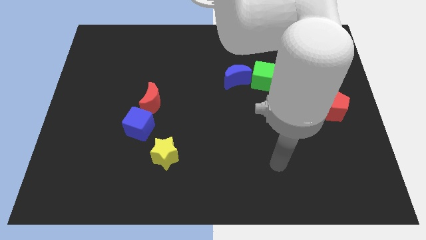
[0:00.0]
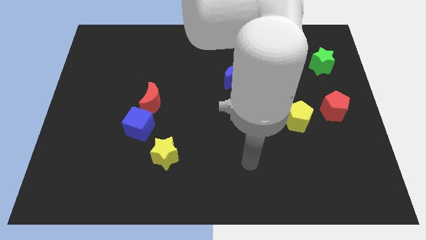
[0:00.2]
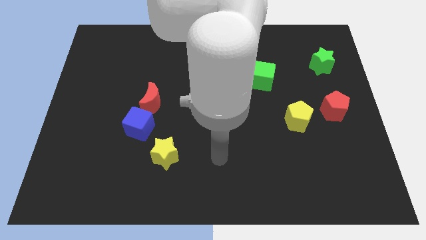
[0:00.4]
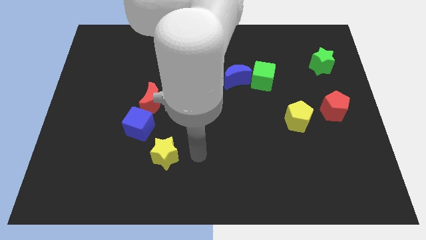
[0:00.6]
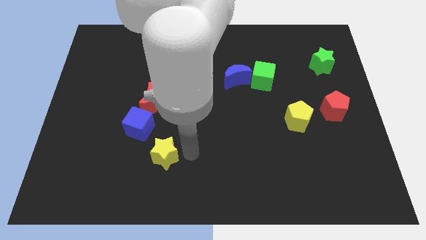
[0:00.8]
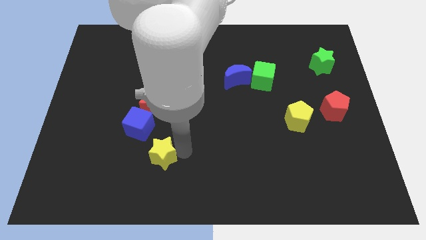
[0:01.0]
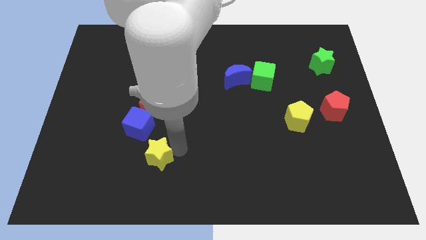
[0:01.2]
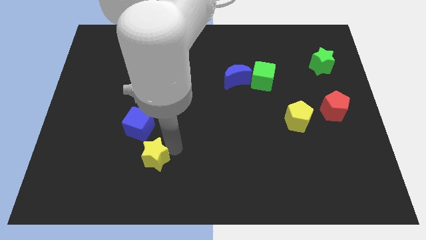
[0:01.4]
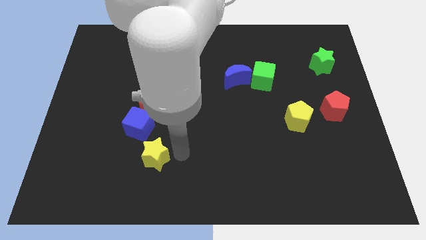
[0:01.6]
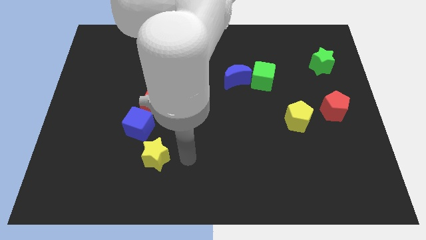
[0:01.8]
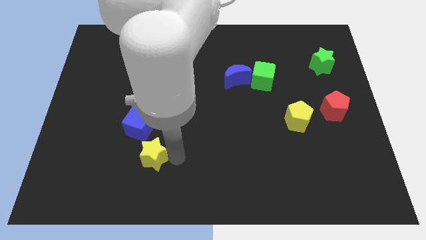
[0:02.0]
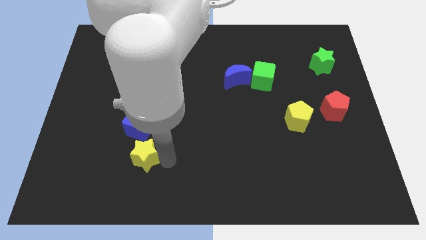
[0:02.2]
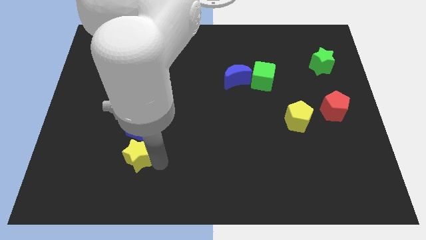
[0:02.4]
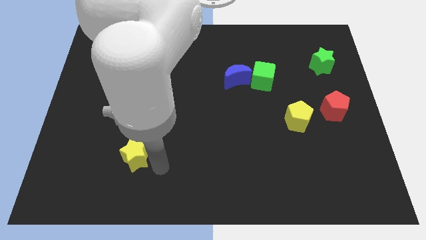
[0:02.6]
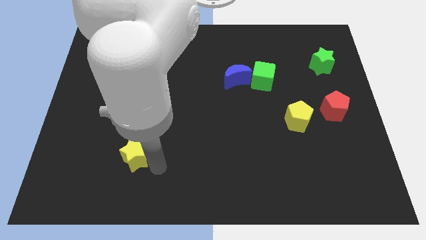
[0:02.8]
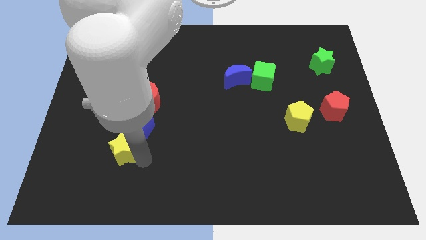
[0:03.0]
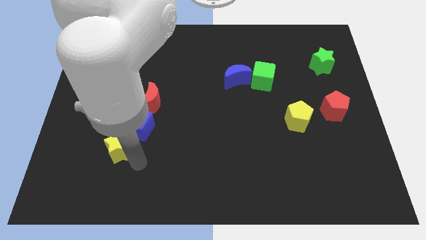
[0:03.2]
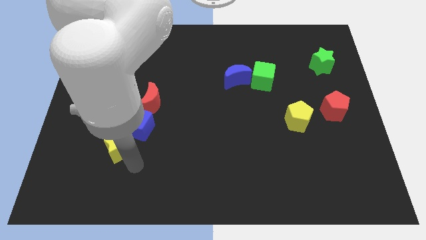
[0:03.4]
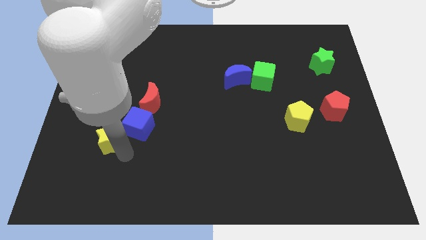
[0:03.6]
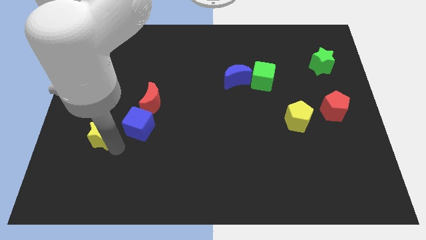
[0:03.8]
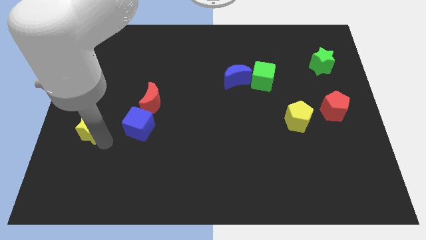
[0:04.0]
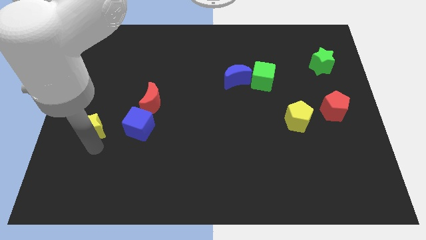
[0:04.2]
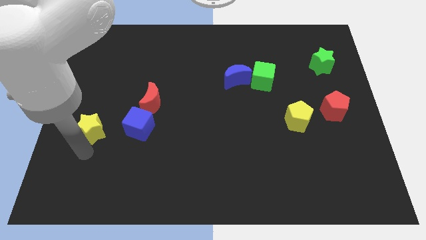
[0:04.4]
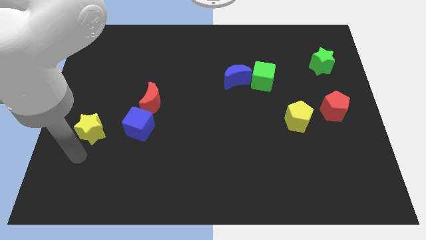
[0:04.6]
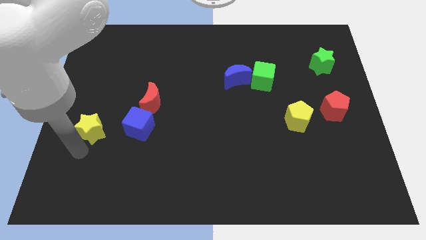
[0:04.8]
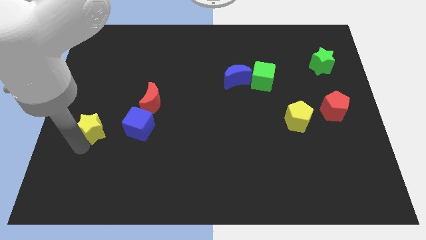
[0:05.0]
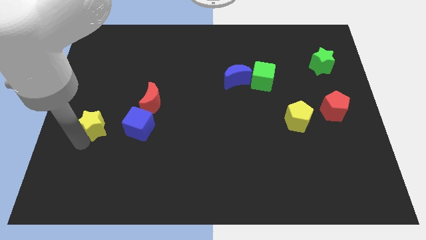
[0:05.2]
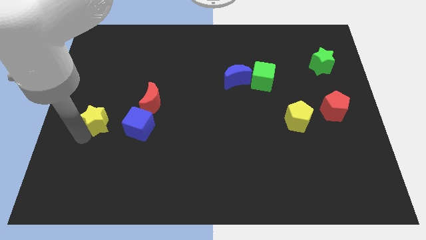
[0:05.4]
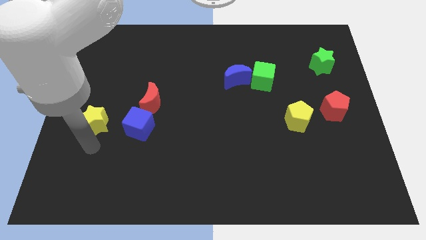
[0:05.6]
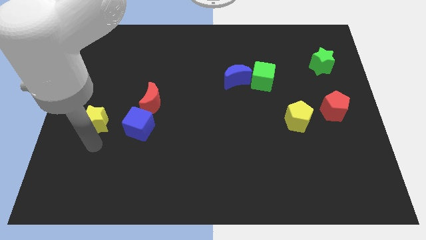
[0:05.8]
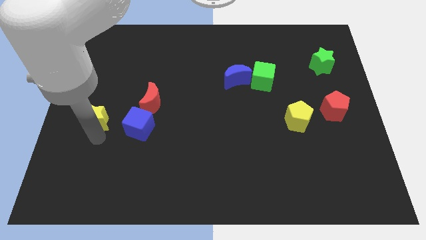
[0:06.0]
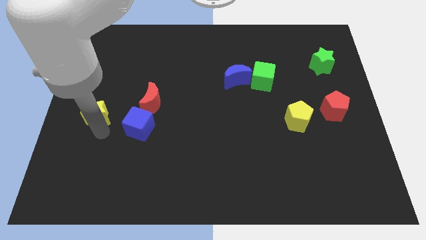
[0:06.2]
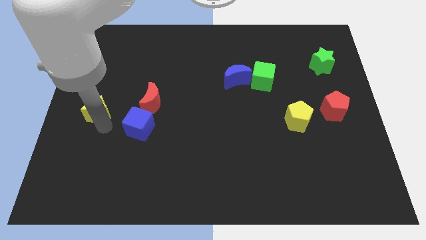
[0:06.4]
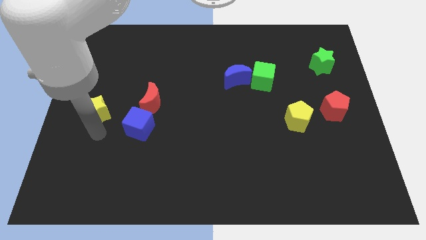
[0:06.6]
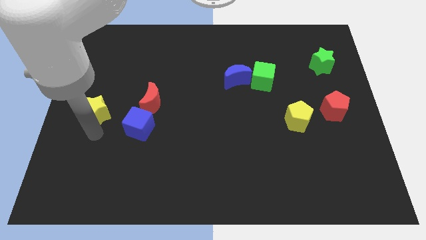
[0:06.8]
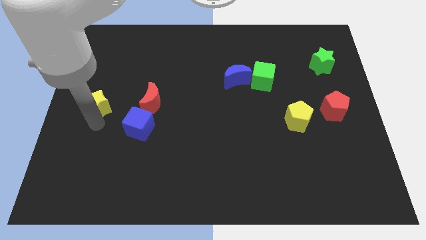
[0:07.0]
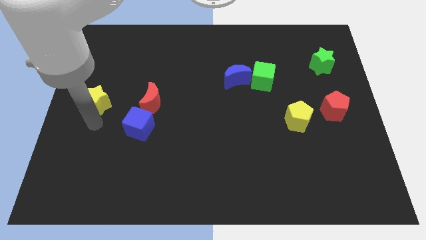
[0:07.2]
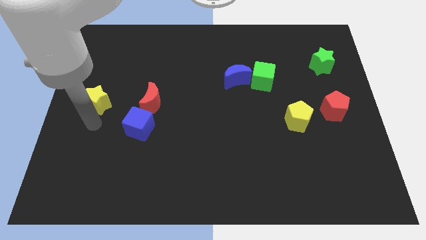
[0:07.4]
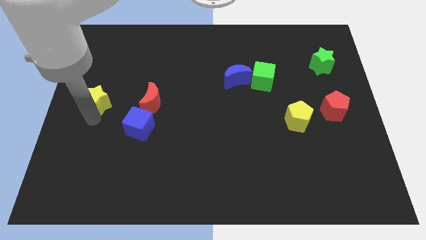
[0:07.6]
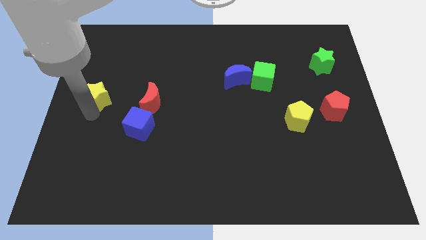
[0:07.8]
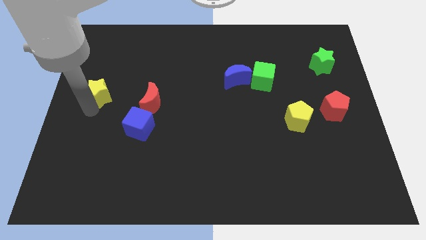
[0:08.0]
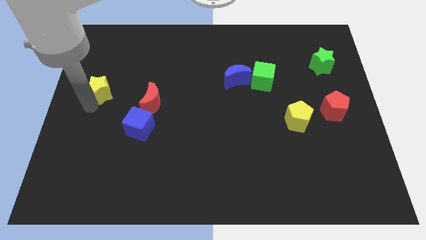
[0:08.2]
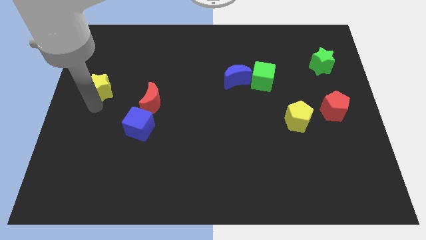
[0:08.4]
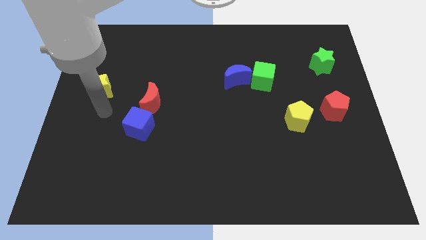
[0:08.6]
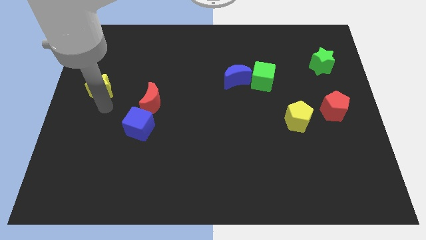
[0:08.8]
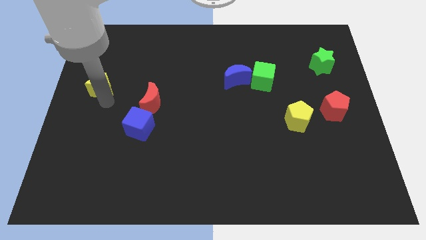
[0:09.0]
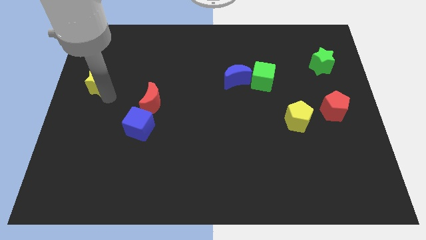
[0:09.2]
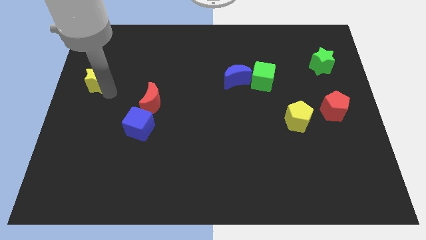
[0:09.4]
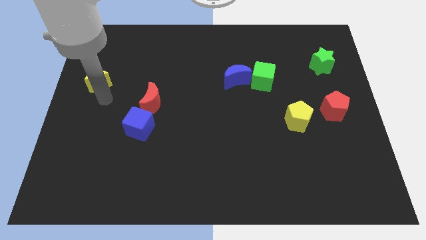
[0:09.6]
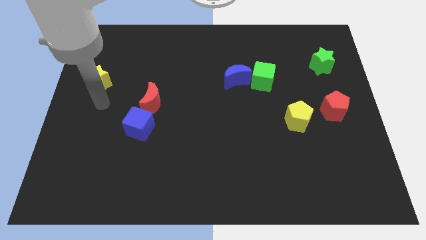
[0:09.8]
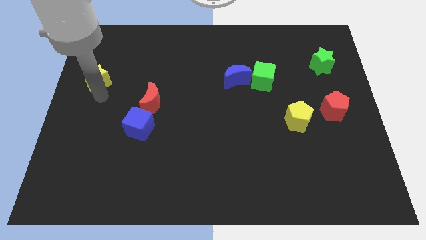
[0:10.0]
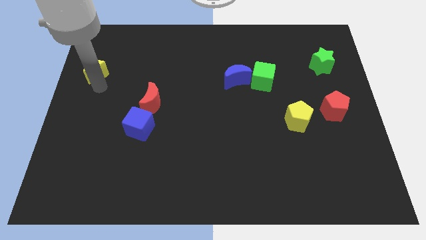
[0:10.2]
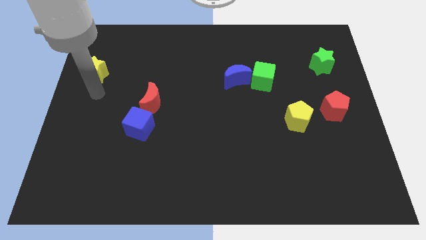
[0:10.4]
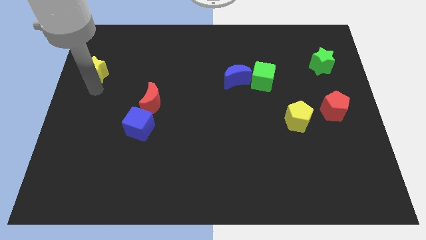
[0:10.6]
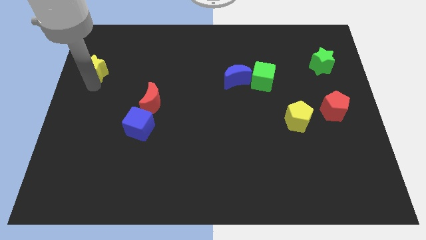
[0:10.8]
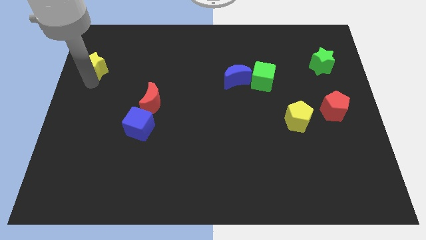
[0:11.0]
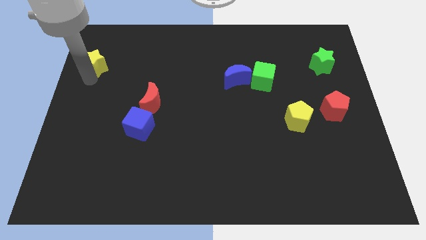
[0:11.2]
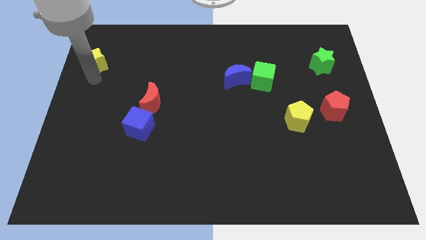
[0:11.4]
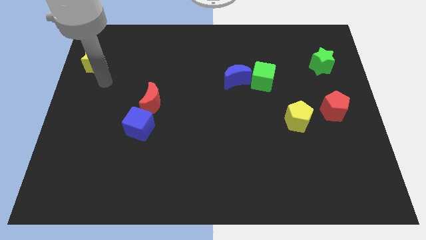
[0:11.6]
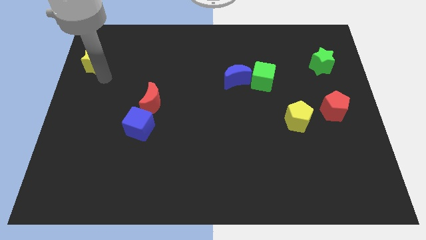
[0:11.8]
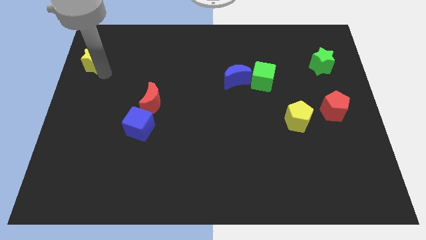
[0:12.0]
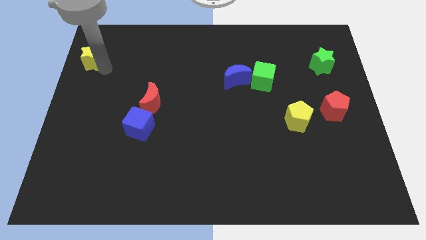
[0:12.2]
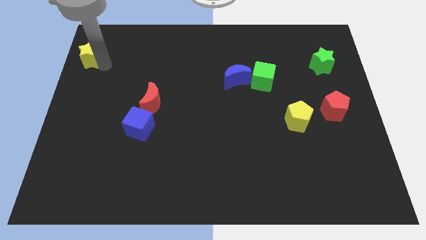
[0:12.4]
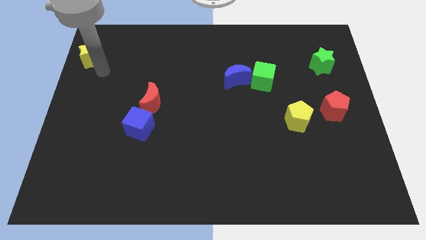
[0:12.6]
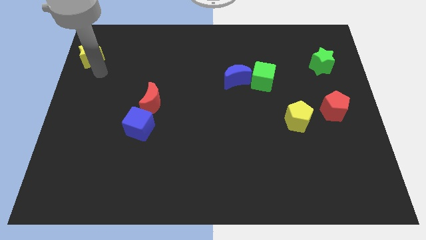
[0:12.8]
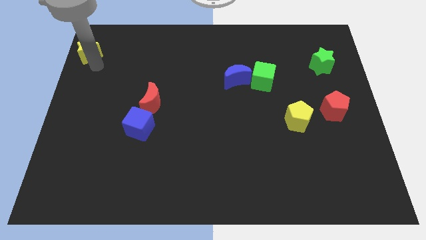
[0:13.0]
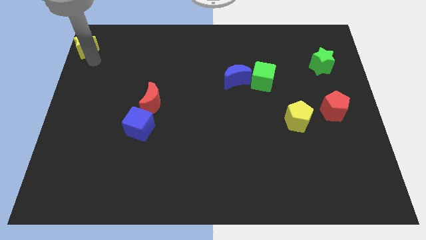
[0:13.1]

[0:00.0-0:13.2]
push the yellow star to the top left
